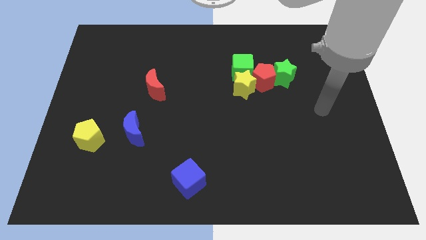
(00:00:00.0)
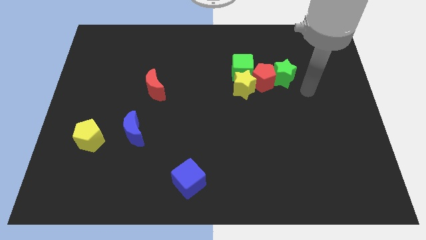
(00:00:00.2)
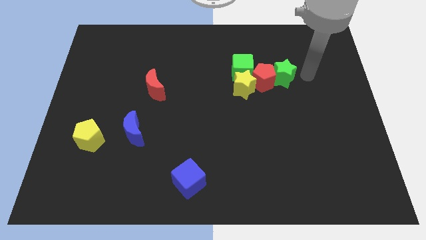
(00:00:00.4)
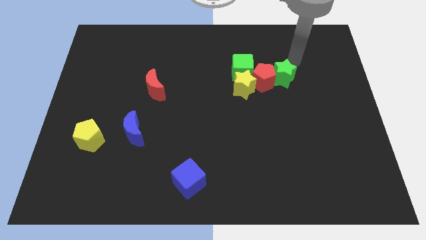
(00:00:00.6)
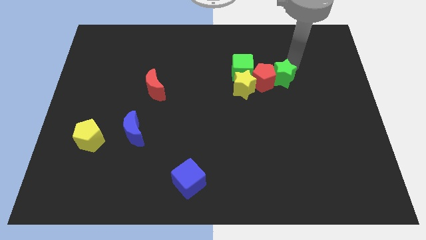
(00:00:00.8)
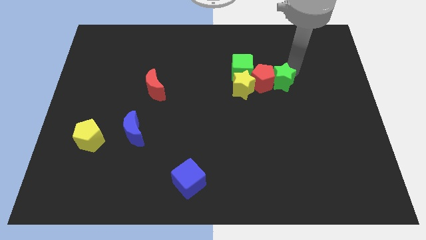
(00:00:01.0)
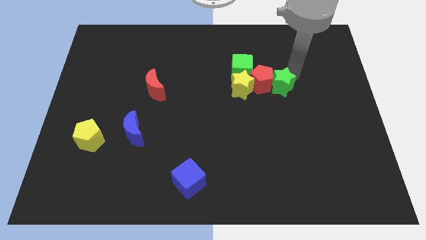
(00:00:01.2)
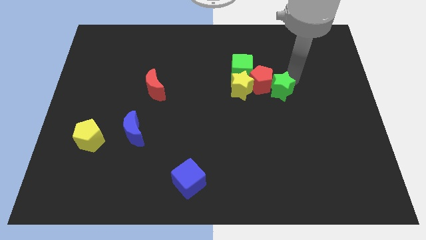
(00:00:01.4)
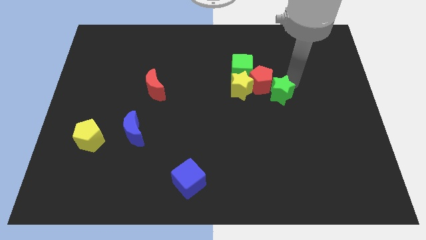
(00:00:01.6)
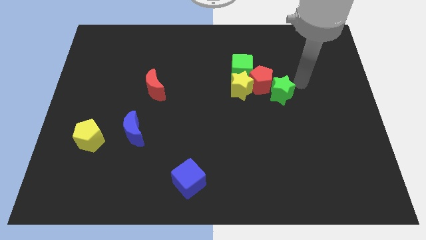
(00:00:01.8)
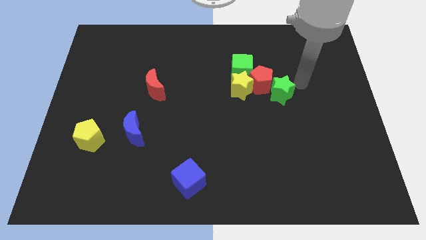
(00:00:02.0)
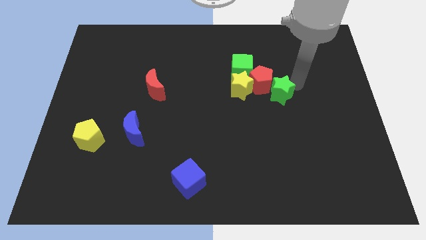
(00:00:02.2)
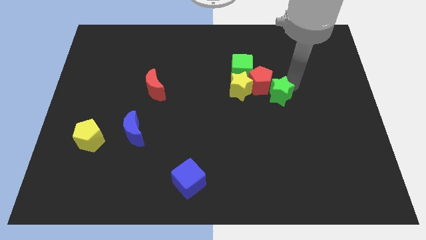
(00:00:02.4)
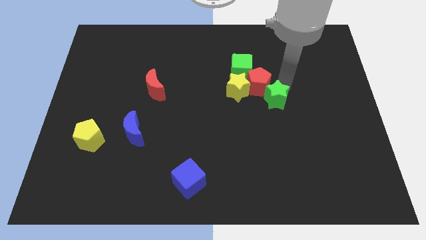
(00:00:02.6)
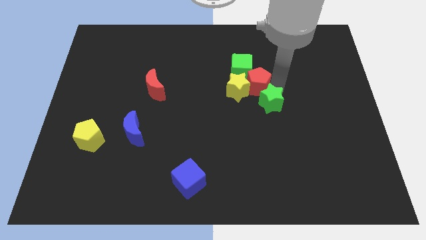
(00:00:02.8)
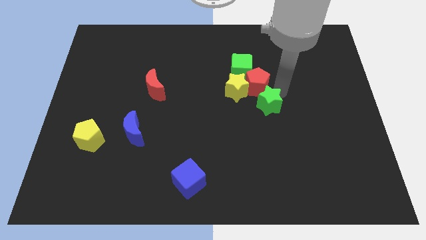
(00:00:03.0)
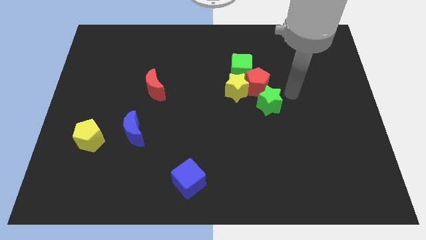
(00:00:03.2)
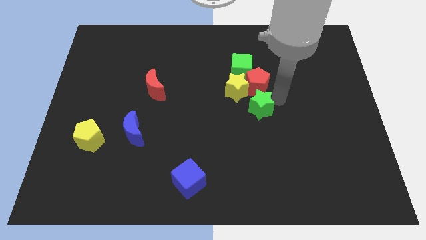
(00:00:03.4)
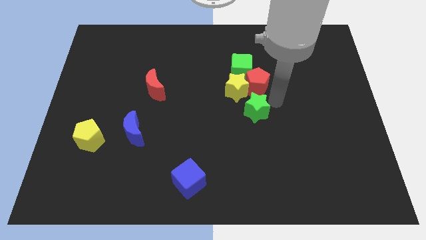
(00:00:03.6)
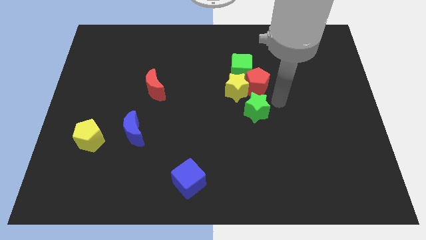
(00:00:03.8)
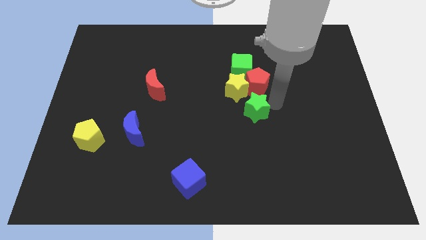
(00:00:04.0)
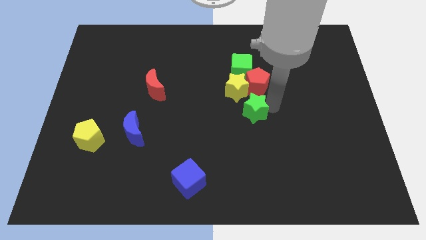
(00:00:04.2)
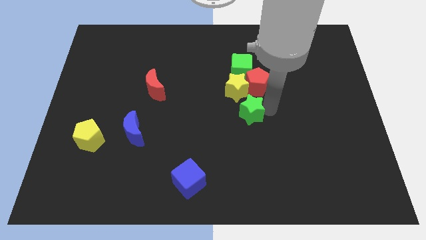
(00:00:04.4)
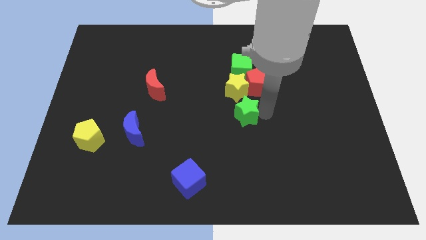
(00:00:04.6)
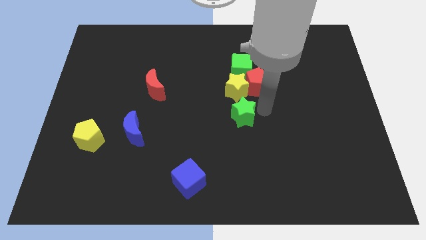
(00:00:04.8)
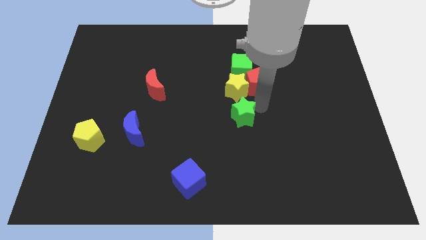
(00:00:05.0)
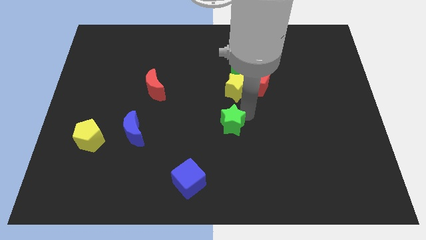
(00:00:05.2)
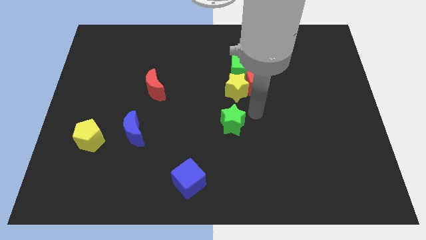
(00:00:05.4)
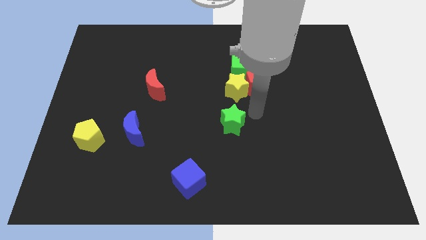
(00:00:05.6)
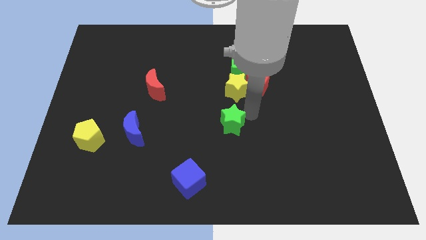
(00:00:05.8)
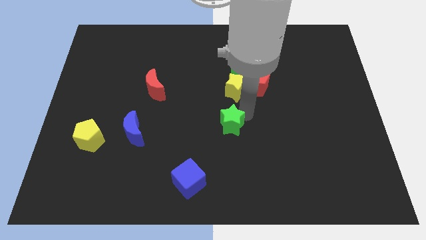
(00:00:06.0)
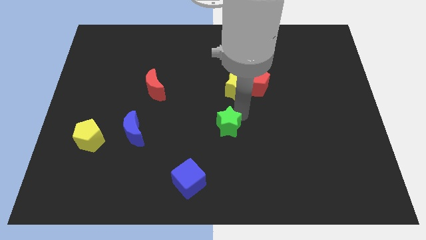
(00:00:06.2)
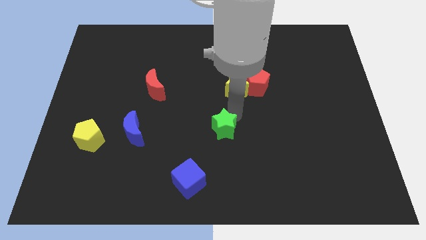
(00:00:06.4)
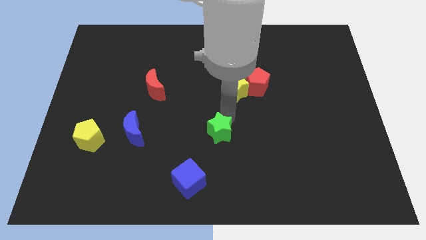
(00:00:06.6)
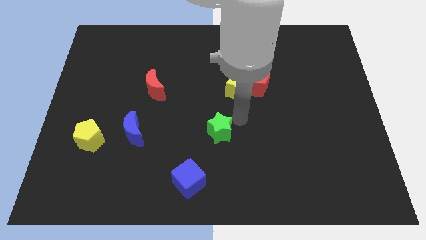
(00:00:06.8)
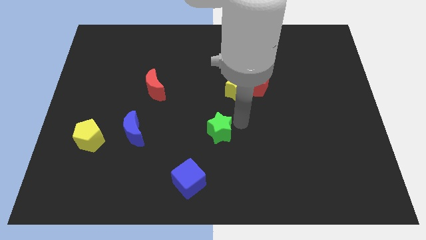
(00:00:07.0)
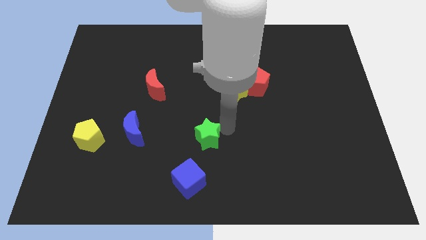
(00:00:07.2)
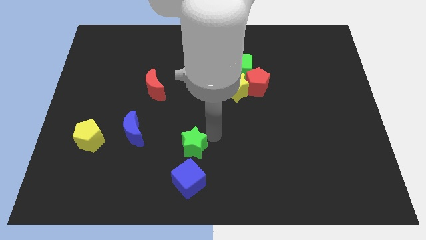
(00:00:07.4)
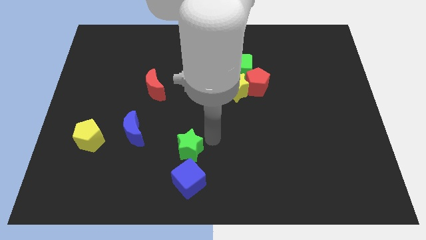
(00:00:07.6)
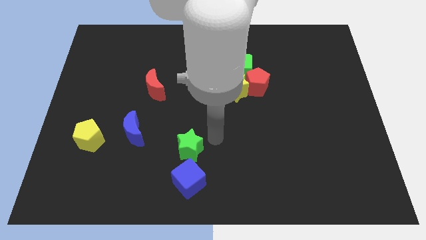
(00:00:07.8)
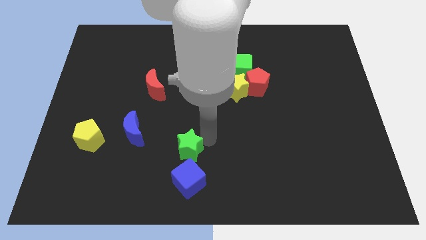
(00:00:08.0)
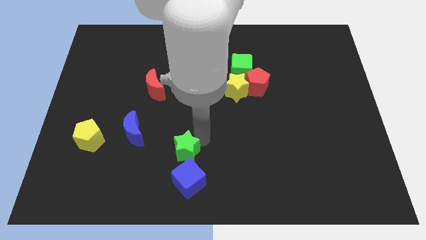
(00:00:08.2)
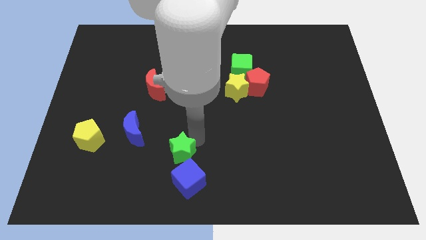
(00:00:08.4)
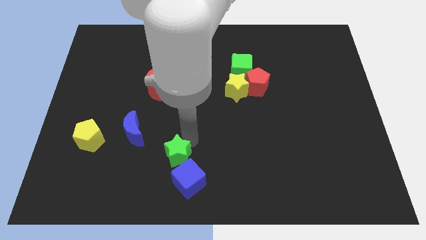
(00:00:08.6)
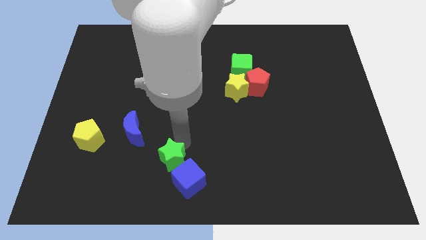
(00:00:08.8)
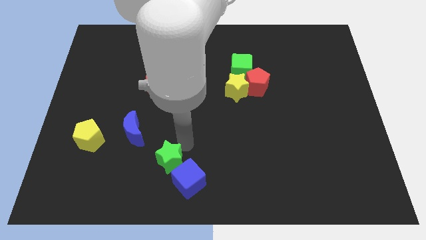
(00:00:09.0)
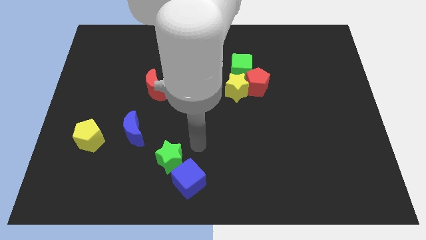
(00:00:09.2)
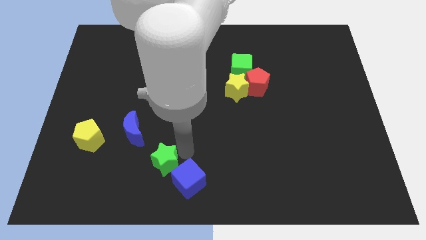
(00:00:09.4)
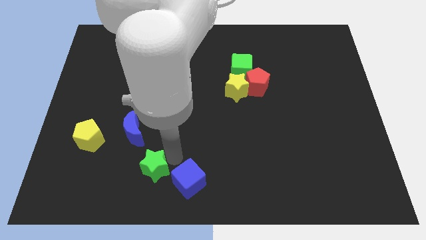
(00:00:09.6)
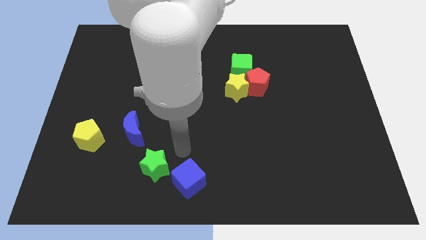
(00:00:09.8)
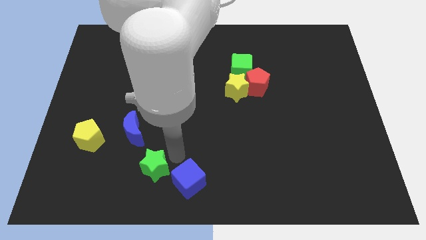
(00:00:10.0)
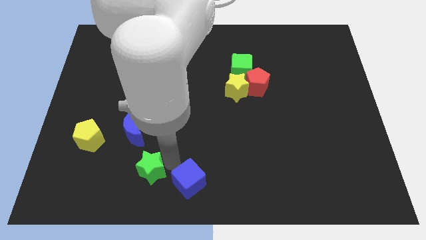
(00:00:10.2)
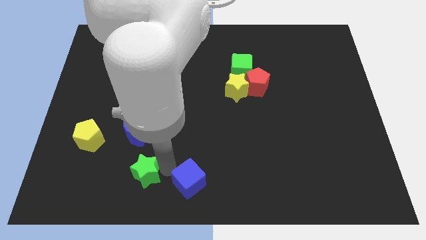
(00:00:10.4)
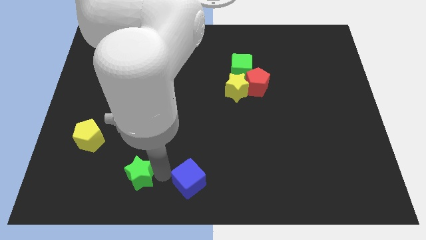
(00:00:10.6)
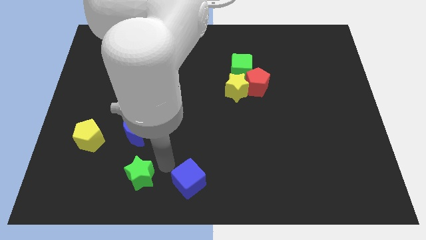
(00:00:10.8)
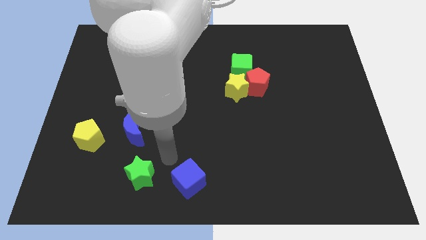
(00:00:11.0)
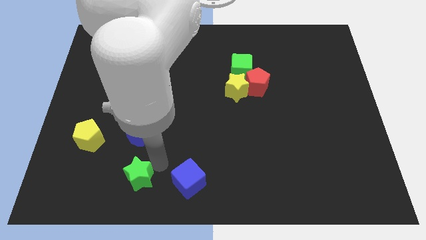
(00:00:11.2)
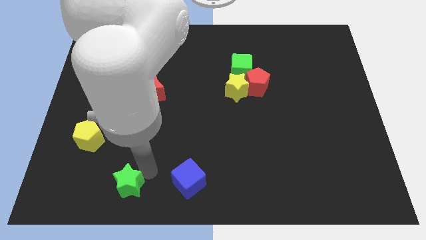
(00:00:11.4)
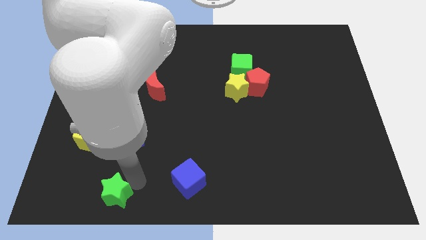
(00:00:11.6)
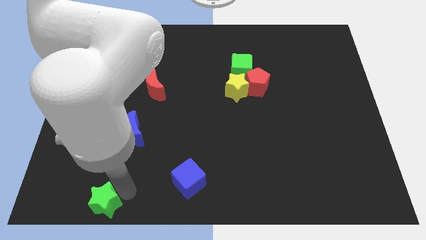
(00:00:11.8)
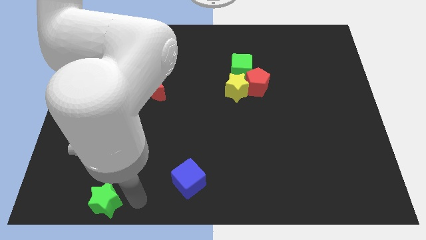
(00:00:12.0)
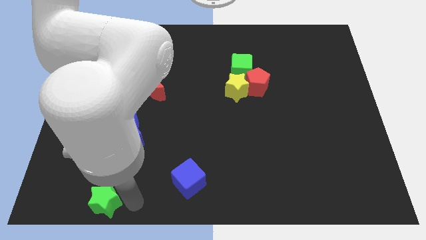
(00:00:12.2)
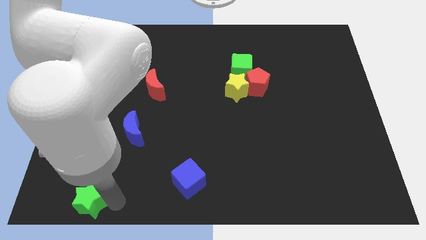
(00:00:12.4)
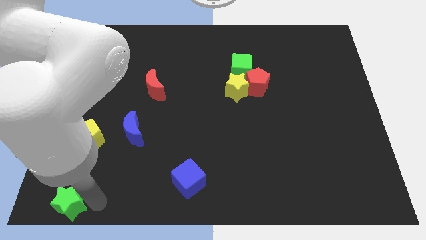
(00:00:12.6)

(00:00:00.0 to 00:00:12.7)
put the green star to the bottom left of the board
